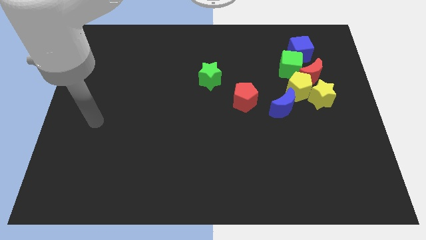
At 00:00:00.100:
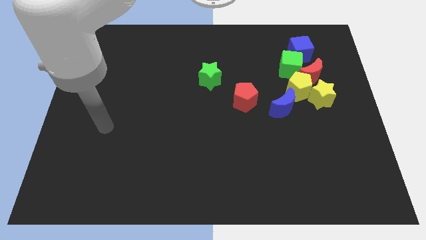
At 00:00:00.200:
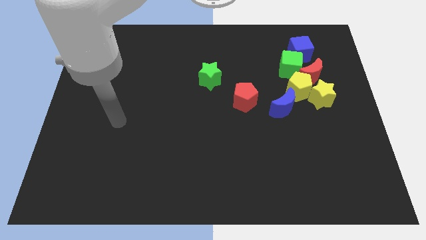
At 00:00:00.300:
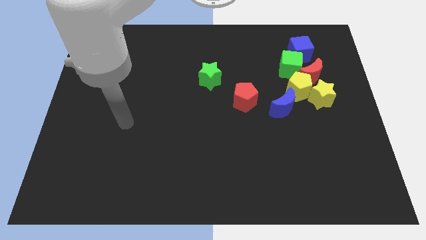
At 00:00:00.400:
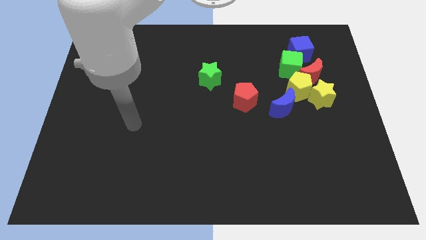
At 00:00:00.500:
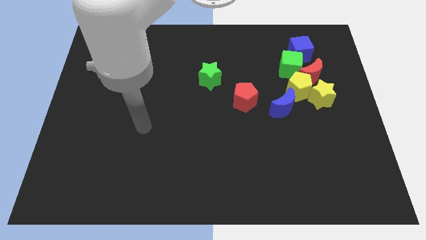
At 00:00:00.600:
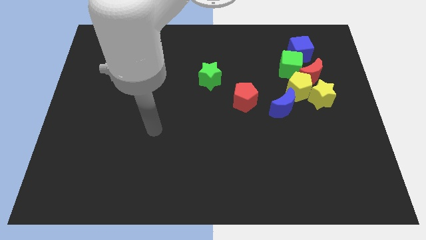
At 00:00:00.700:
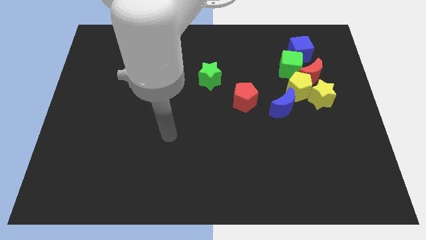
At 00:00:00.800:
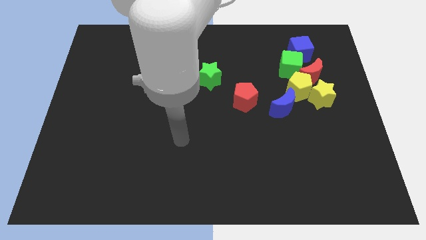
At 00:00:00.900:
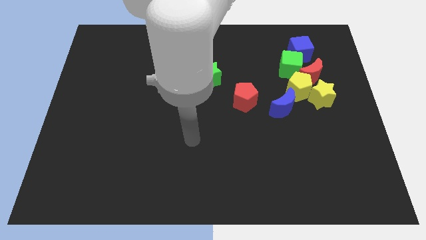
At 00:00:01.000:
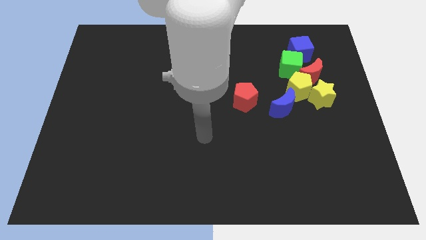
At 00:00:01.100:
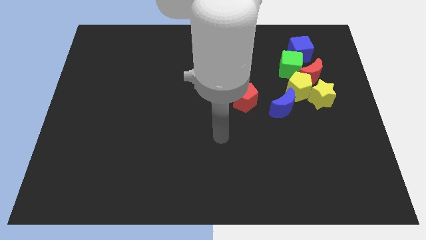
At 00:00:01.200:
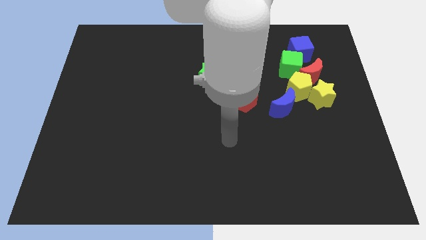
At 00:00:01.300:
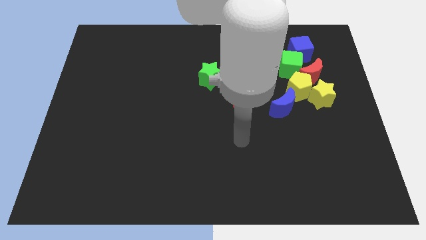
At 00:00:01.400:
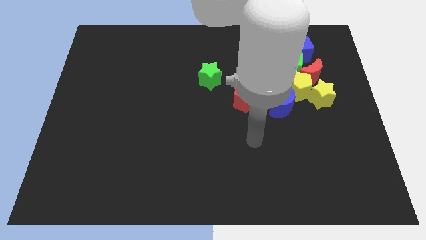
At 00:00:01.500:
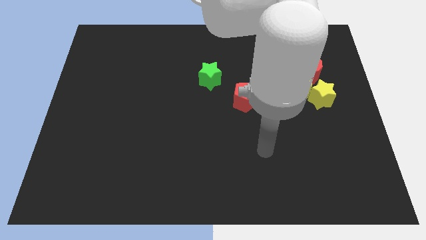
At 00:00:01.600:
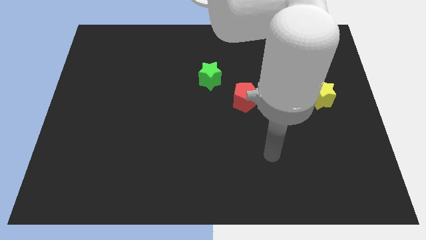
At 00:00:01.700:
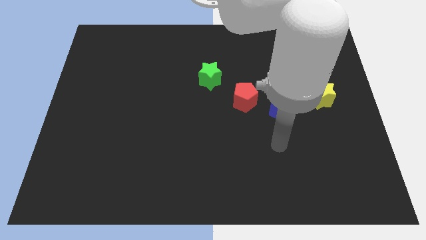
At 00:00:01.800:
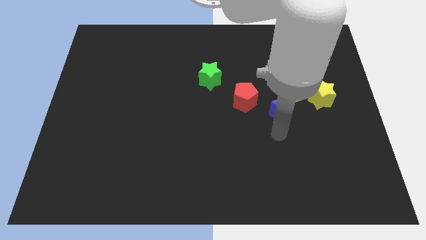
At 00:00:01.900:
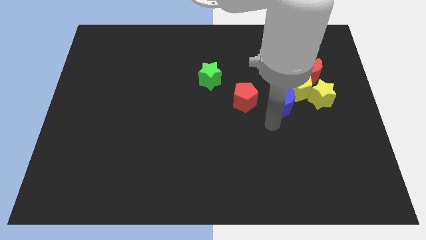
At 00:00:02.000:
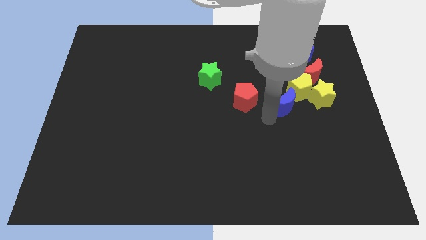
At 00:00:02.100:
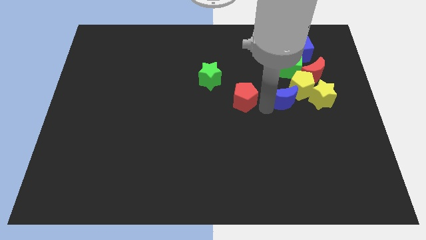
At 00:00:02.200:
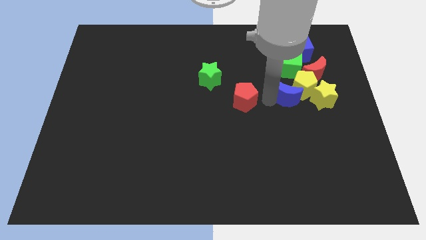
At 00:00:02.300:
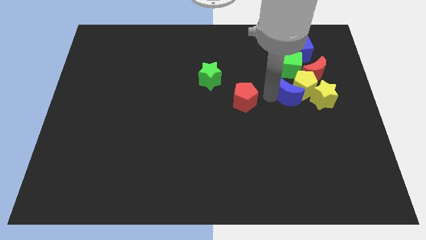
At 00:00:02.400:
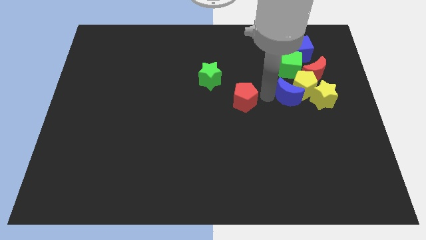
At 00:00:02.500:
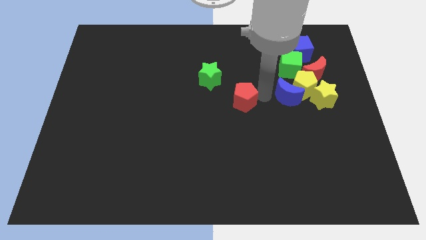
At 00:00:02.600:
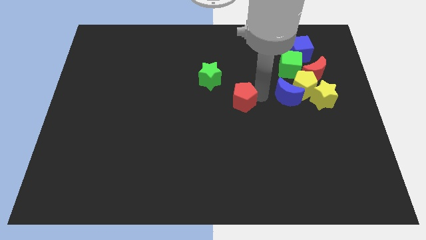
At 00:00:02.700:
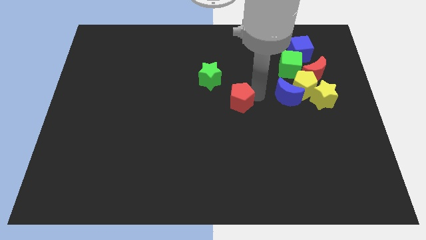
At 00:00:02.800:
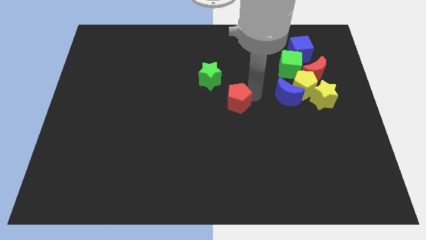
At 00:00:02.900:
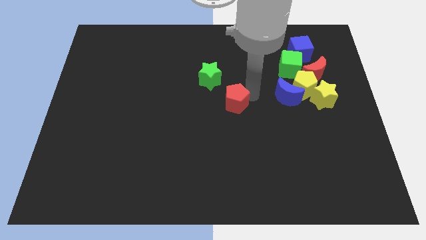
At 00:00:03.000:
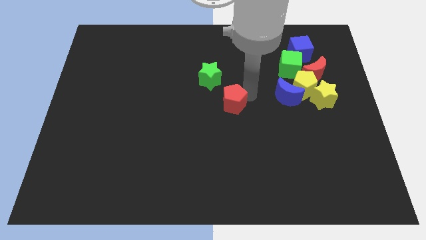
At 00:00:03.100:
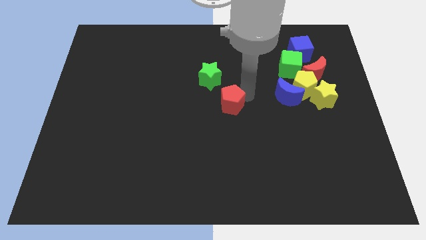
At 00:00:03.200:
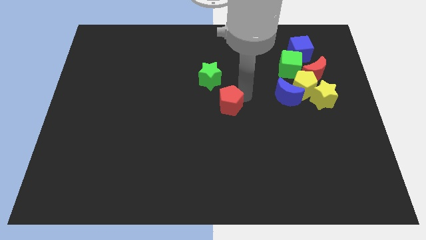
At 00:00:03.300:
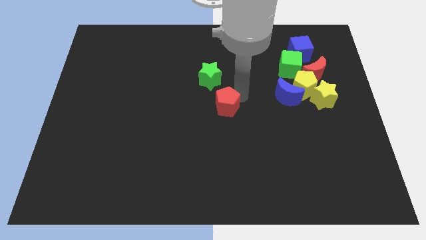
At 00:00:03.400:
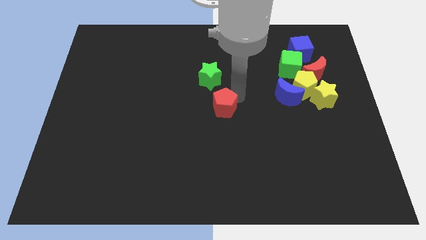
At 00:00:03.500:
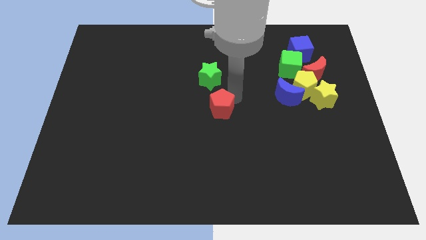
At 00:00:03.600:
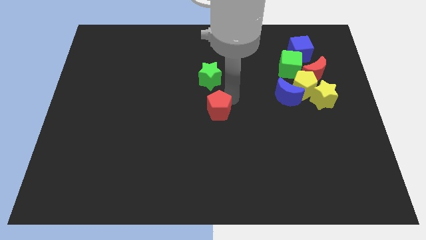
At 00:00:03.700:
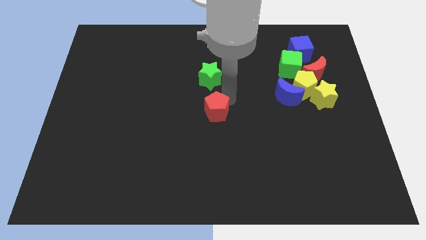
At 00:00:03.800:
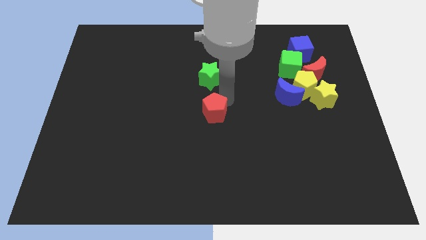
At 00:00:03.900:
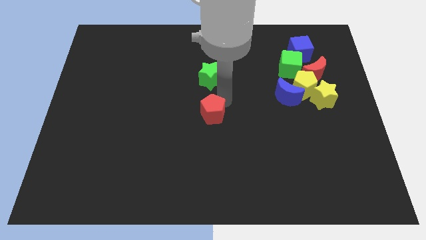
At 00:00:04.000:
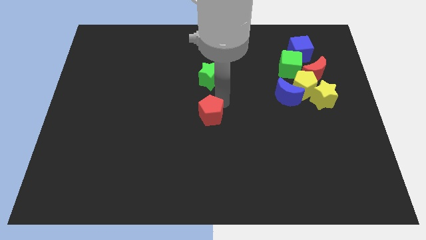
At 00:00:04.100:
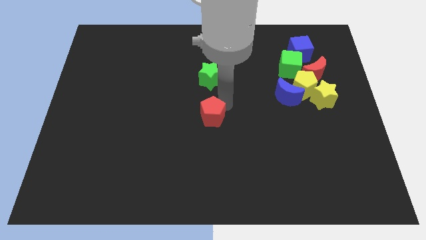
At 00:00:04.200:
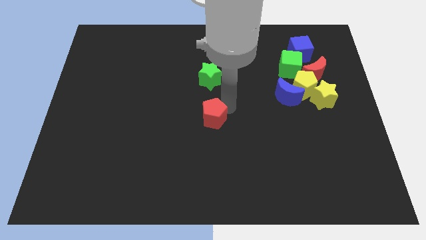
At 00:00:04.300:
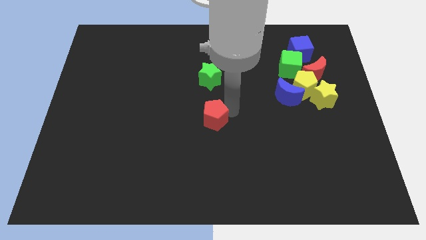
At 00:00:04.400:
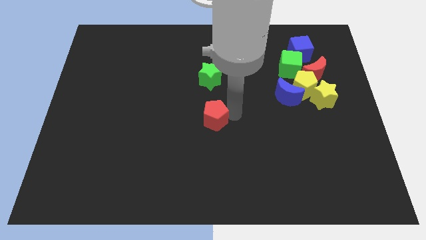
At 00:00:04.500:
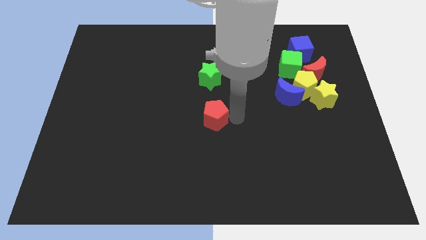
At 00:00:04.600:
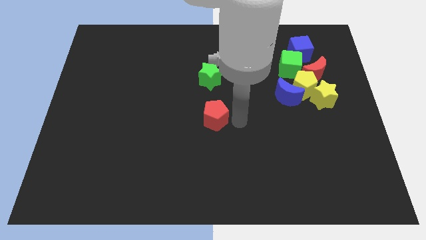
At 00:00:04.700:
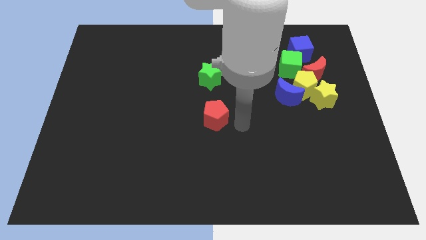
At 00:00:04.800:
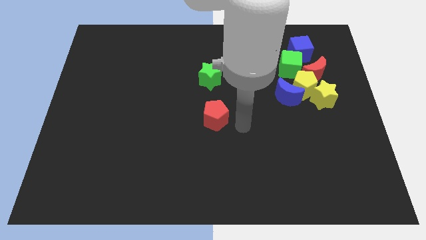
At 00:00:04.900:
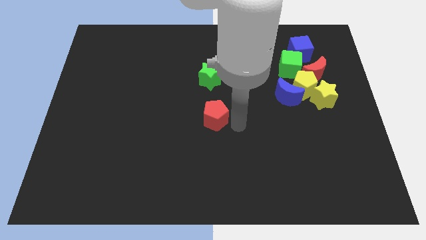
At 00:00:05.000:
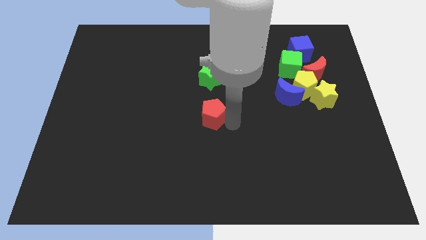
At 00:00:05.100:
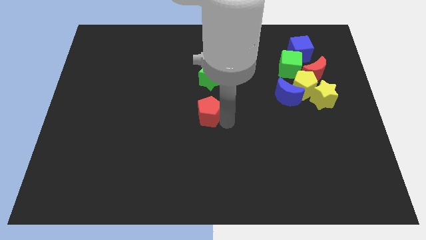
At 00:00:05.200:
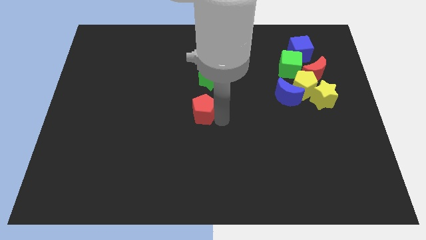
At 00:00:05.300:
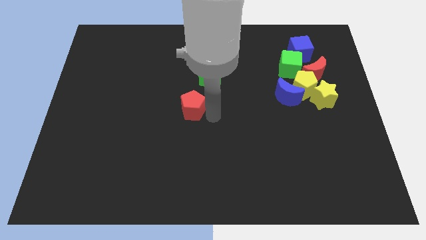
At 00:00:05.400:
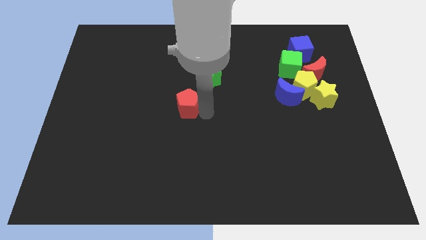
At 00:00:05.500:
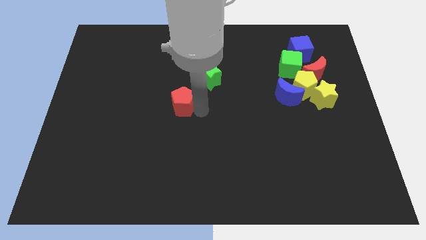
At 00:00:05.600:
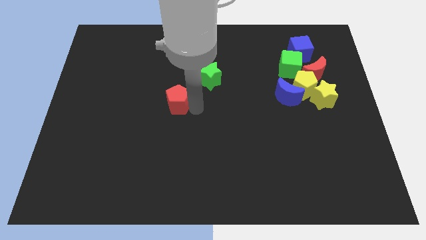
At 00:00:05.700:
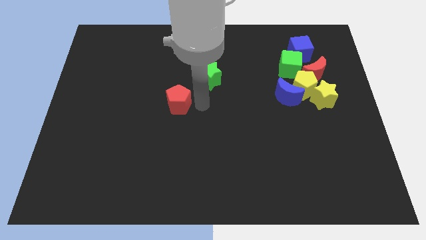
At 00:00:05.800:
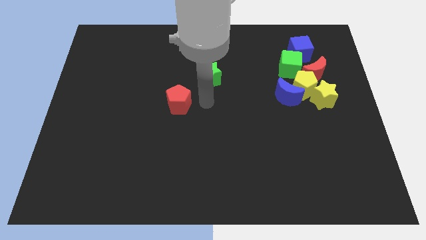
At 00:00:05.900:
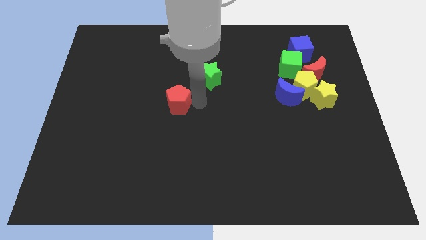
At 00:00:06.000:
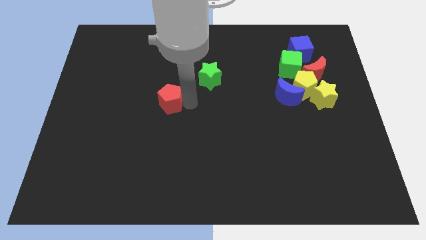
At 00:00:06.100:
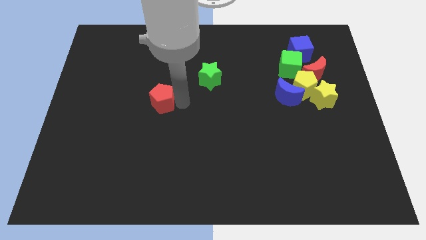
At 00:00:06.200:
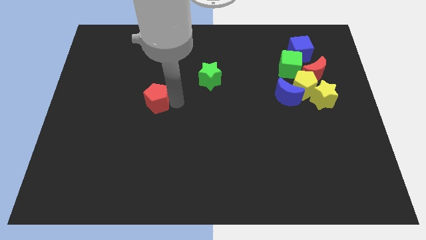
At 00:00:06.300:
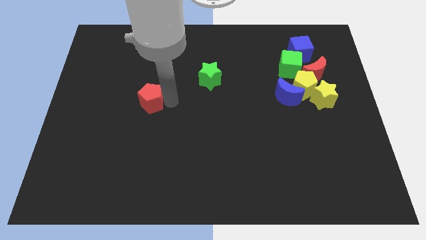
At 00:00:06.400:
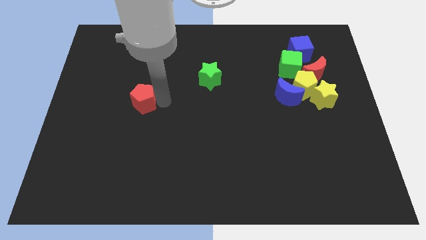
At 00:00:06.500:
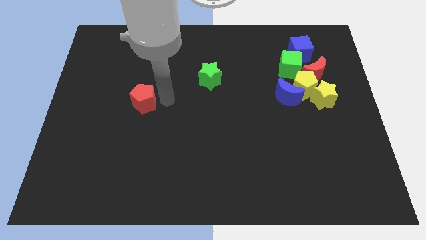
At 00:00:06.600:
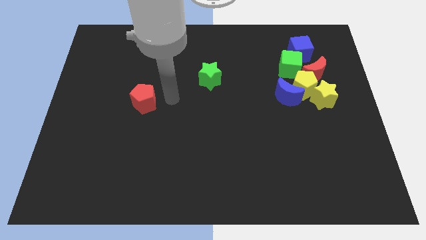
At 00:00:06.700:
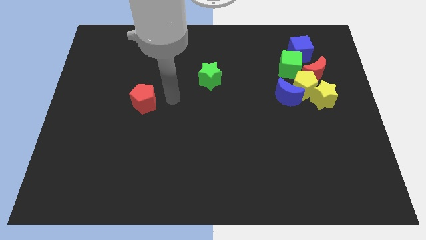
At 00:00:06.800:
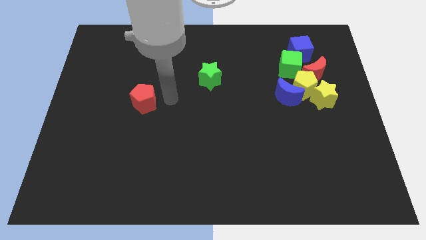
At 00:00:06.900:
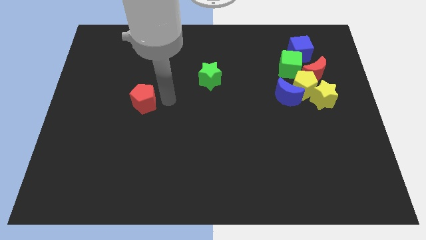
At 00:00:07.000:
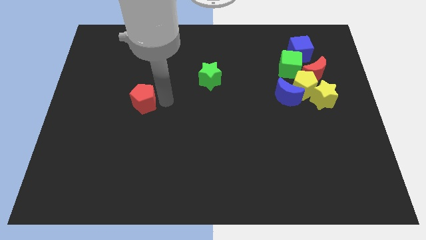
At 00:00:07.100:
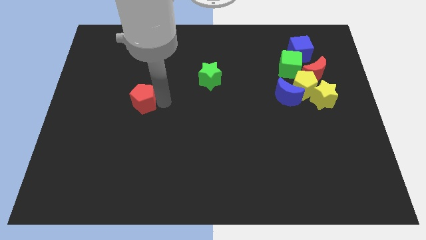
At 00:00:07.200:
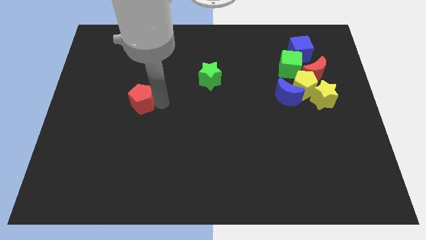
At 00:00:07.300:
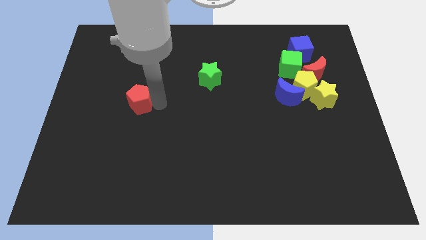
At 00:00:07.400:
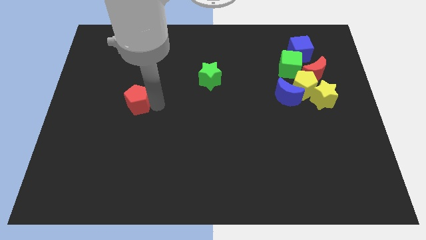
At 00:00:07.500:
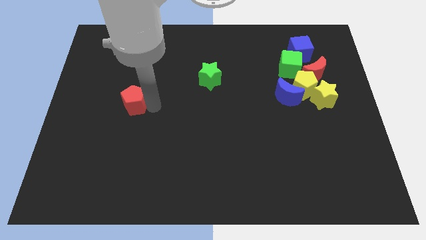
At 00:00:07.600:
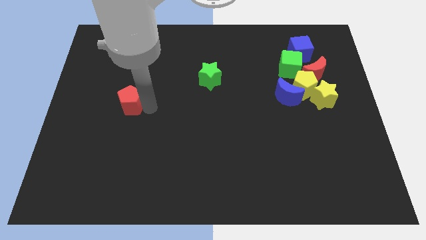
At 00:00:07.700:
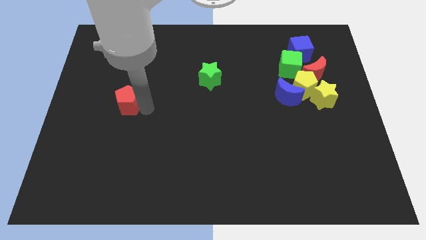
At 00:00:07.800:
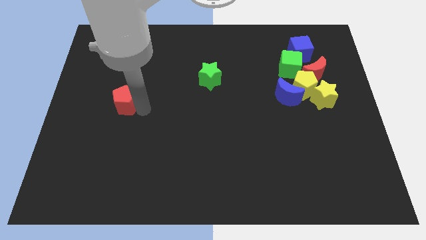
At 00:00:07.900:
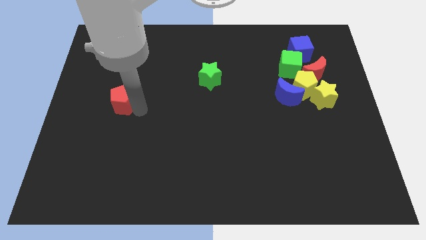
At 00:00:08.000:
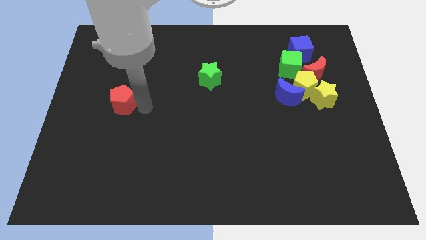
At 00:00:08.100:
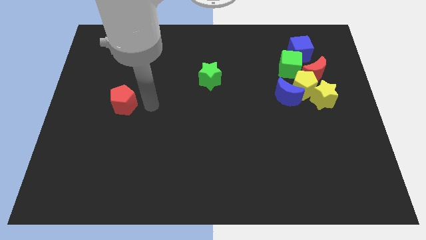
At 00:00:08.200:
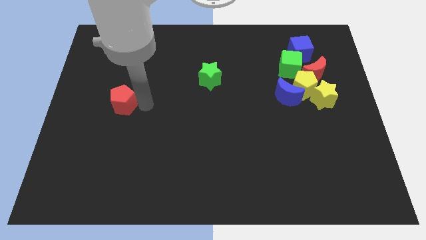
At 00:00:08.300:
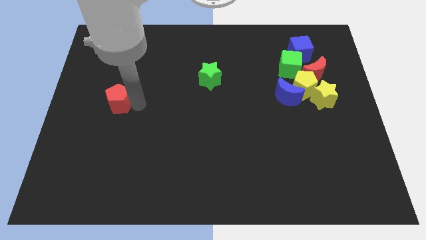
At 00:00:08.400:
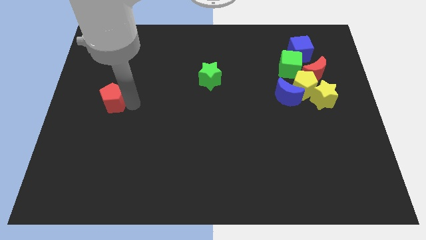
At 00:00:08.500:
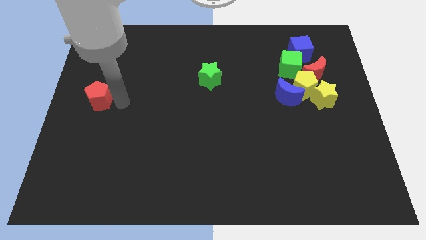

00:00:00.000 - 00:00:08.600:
move the red pentagon to the left side
